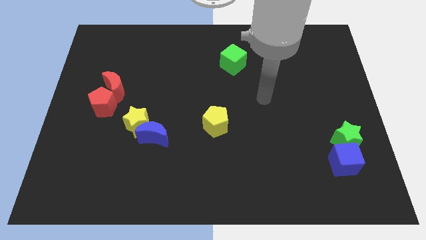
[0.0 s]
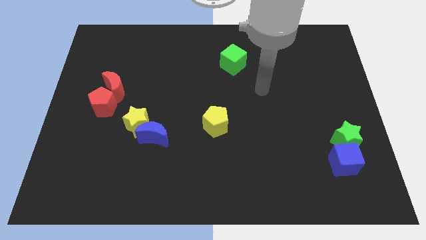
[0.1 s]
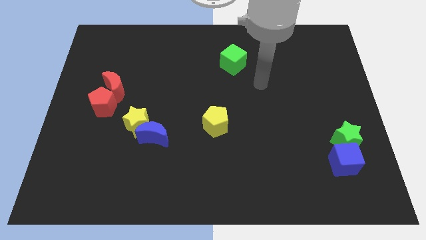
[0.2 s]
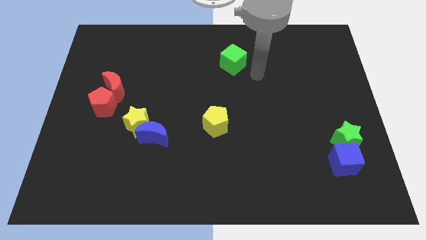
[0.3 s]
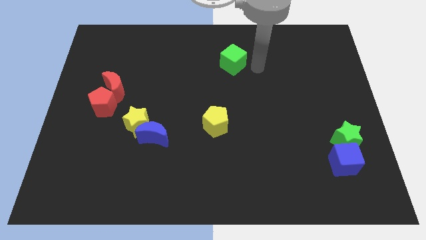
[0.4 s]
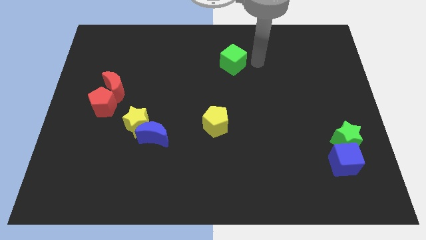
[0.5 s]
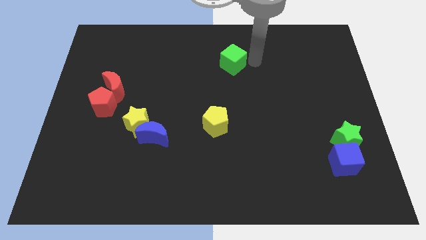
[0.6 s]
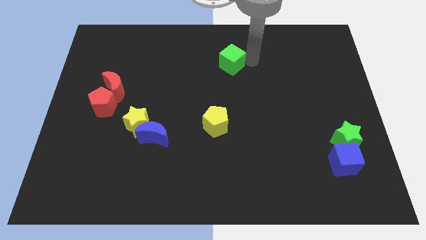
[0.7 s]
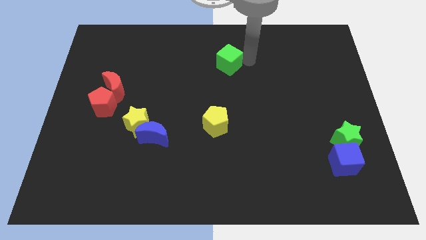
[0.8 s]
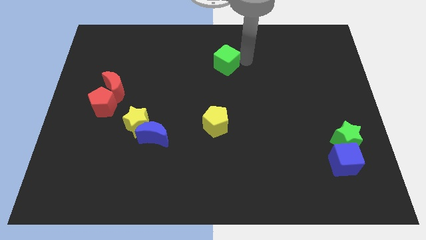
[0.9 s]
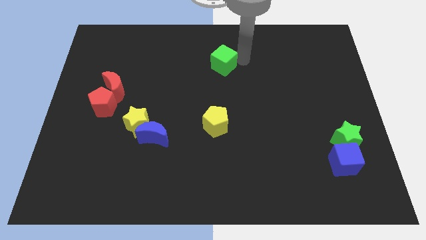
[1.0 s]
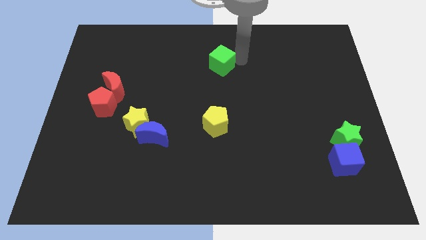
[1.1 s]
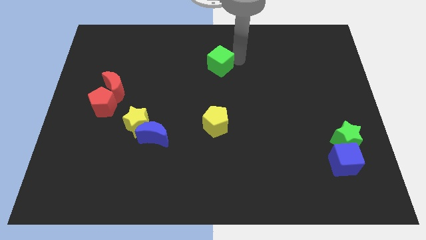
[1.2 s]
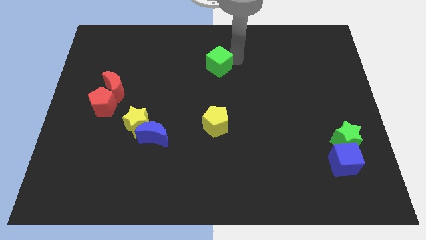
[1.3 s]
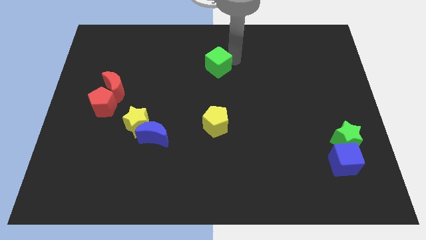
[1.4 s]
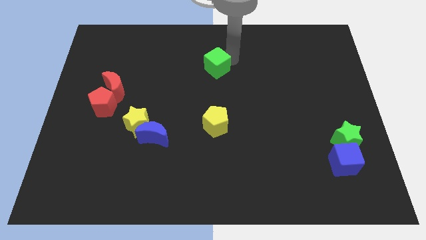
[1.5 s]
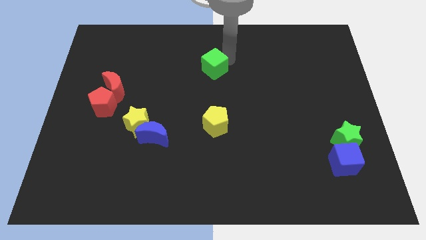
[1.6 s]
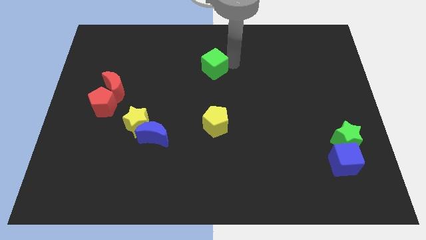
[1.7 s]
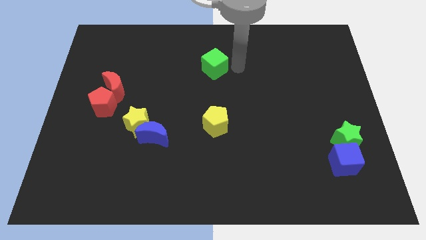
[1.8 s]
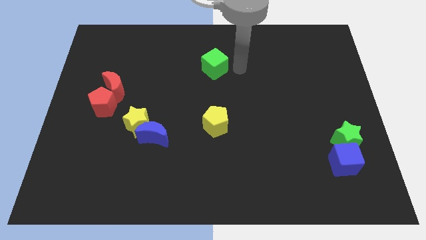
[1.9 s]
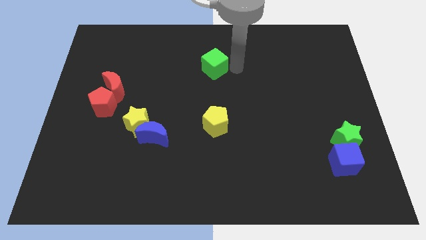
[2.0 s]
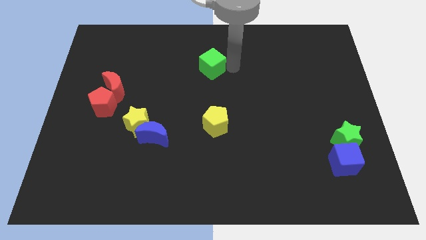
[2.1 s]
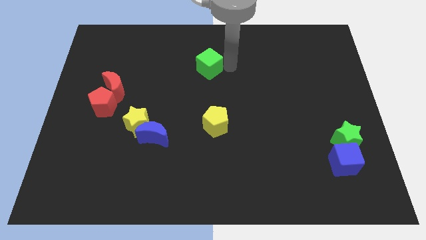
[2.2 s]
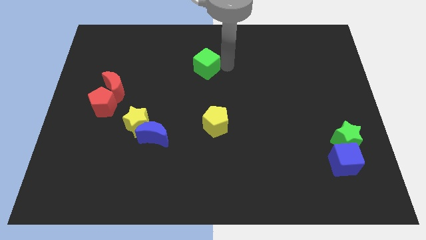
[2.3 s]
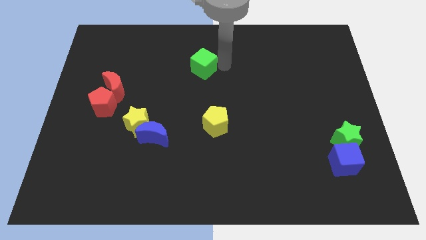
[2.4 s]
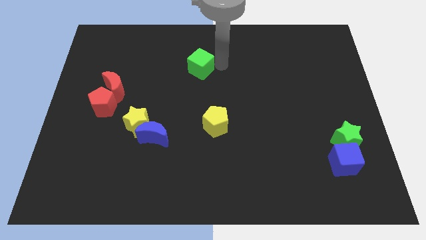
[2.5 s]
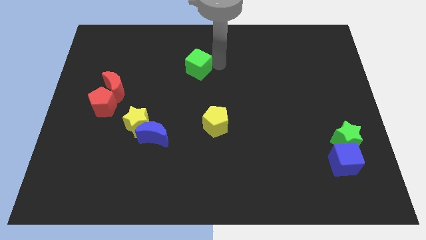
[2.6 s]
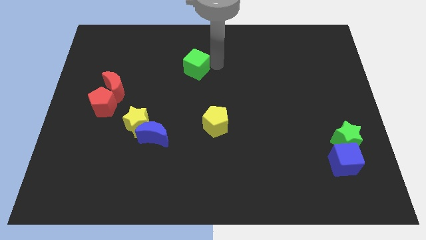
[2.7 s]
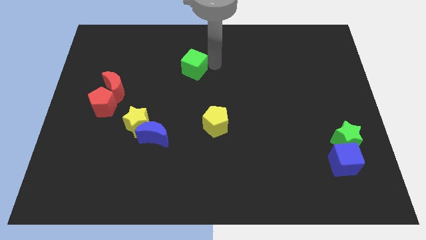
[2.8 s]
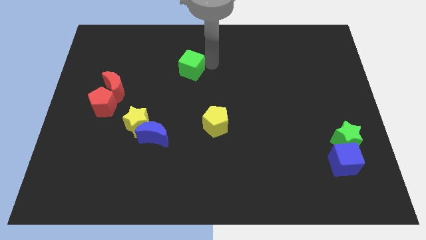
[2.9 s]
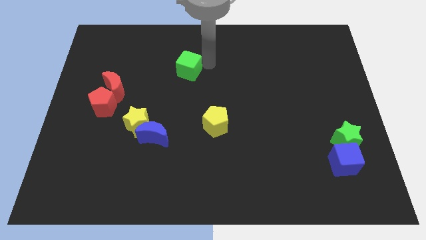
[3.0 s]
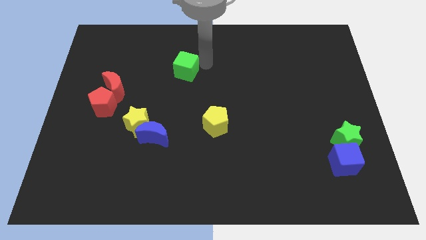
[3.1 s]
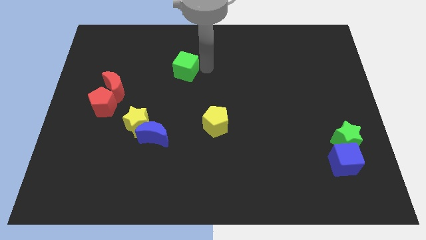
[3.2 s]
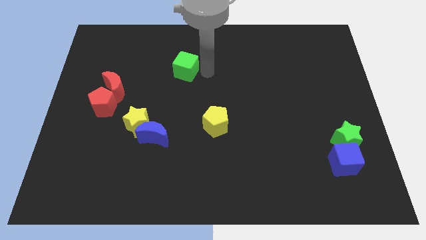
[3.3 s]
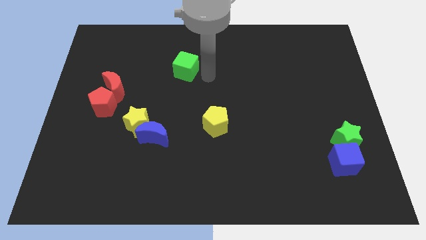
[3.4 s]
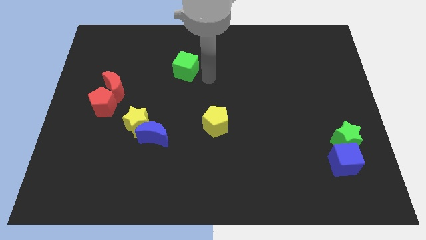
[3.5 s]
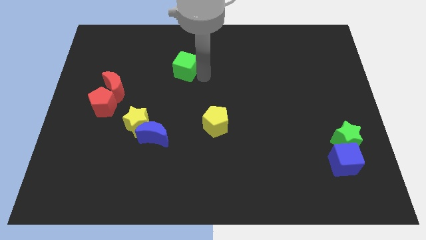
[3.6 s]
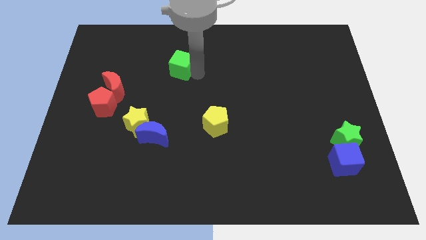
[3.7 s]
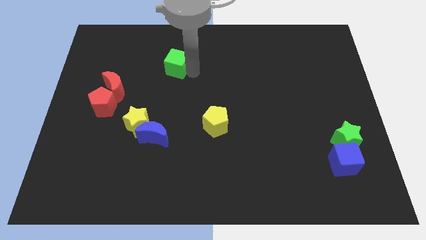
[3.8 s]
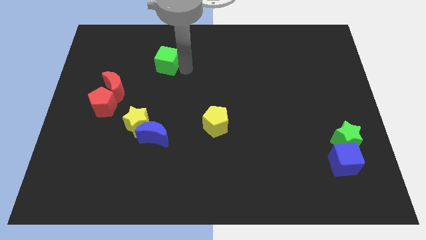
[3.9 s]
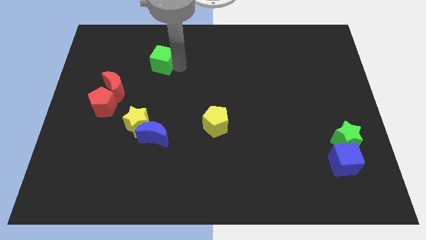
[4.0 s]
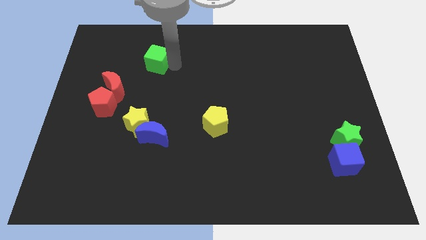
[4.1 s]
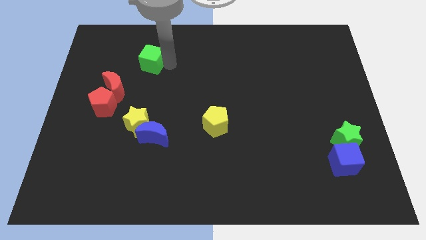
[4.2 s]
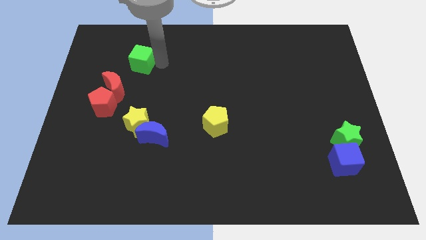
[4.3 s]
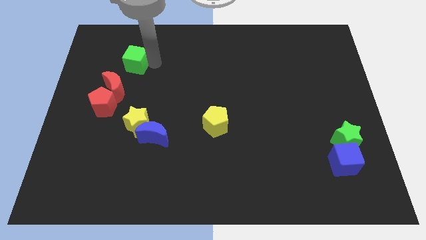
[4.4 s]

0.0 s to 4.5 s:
move the green cube to the top side of the red moon

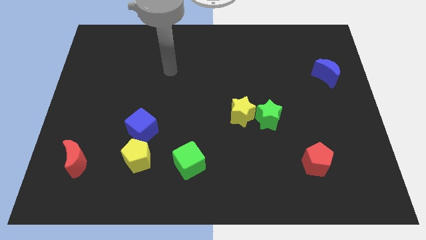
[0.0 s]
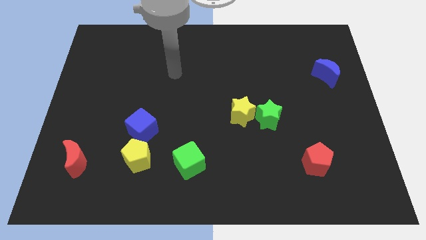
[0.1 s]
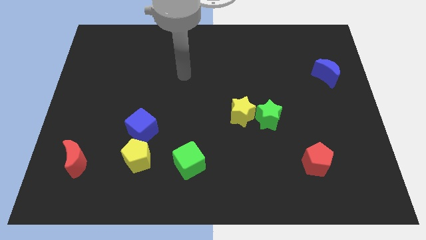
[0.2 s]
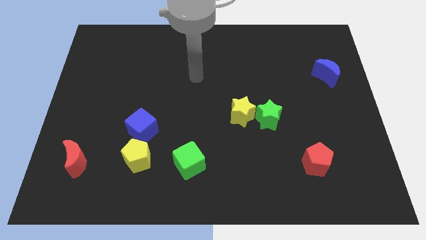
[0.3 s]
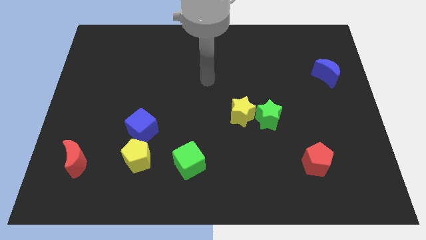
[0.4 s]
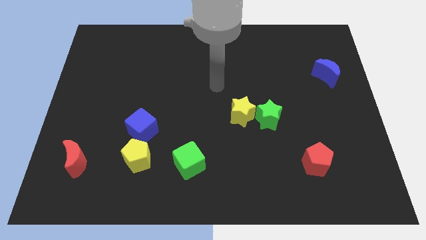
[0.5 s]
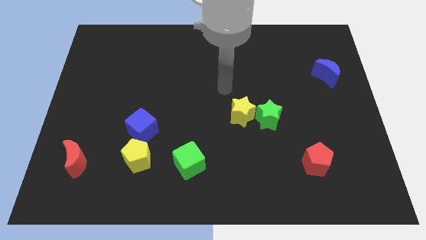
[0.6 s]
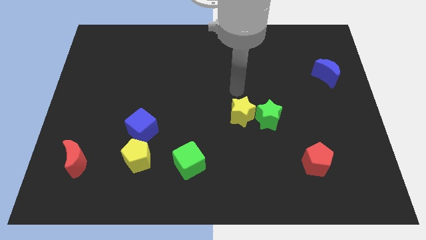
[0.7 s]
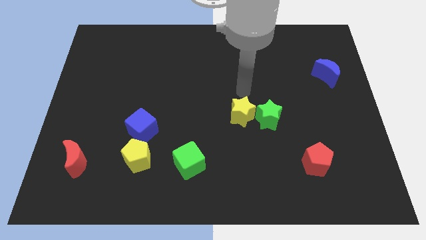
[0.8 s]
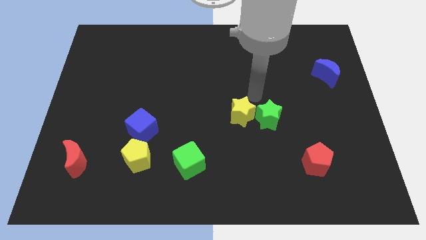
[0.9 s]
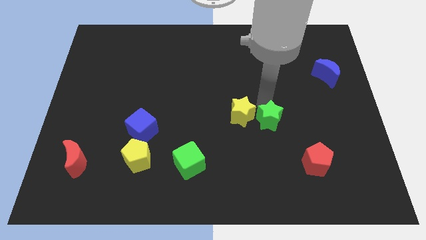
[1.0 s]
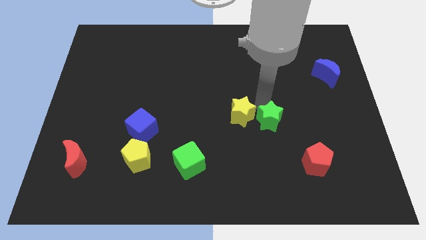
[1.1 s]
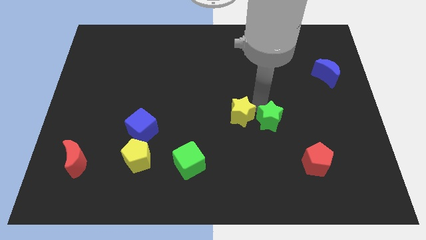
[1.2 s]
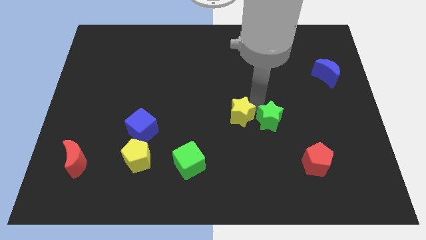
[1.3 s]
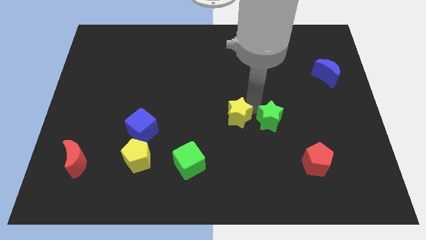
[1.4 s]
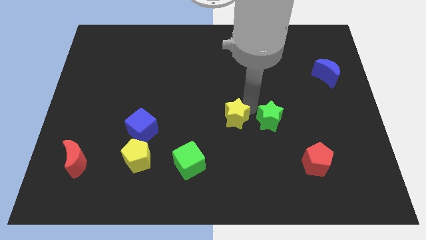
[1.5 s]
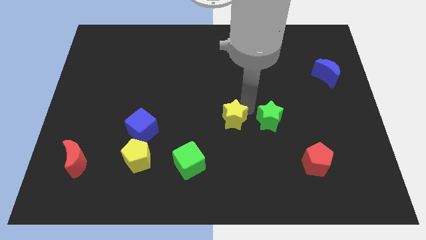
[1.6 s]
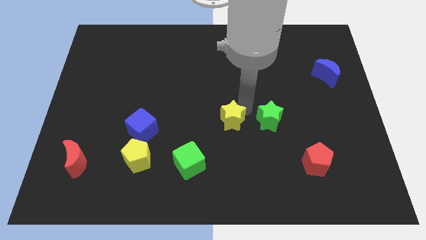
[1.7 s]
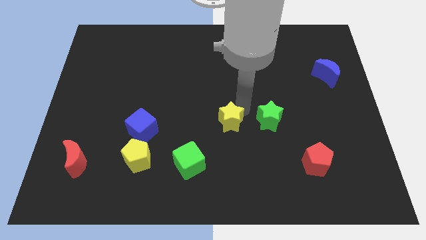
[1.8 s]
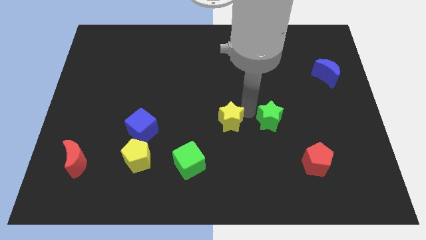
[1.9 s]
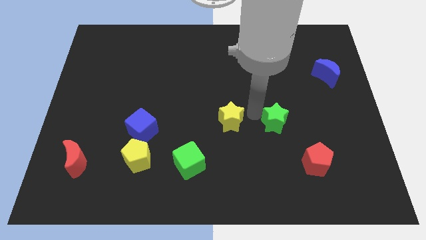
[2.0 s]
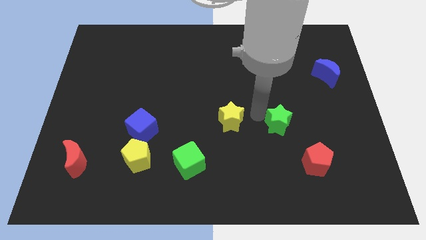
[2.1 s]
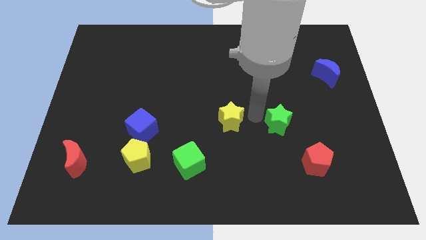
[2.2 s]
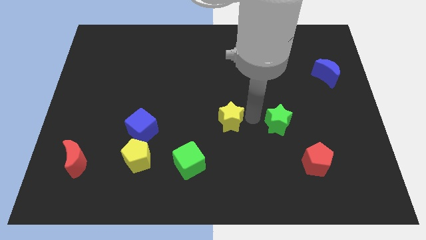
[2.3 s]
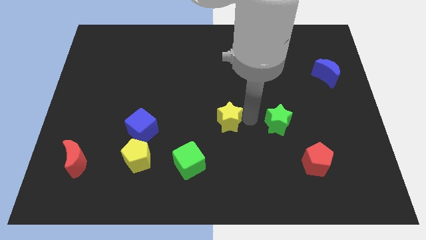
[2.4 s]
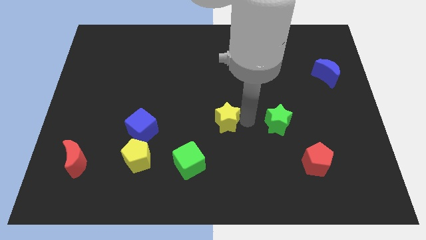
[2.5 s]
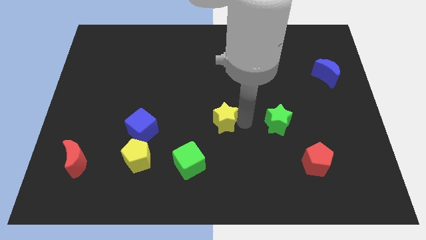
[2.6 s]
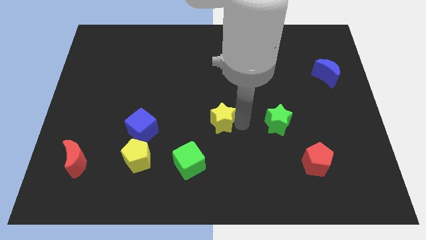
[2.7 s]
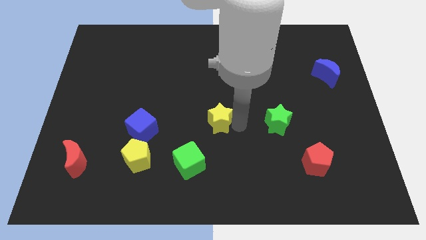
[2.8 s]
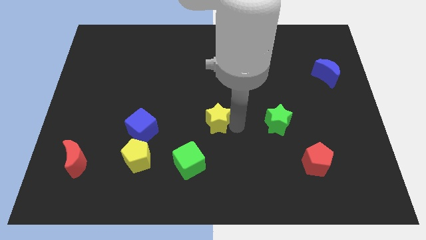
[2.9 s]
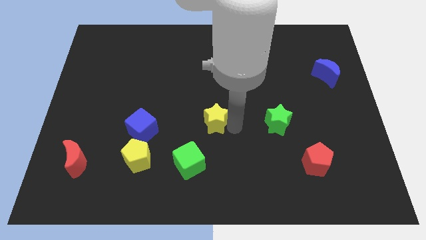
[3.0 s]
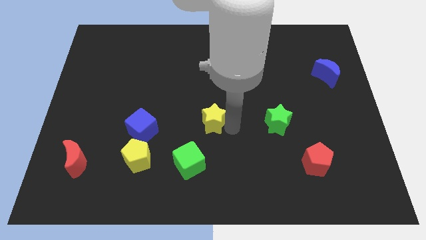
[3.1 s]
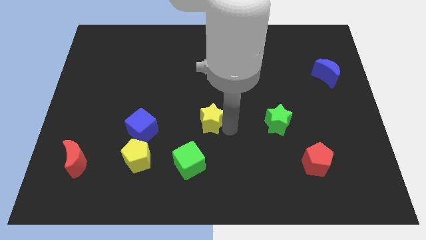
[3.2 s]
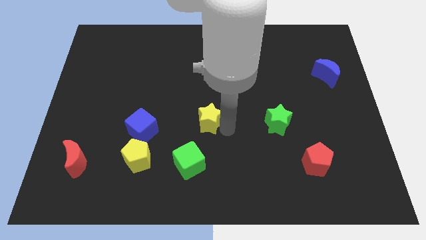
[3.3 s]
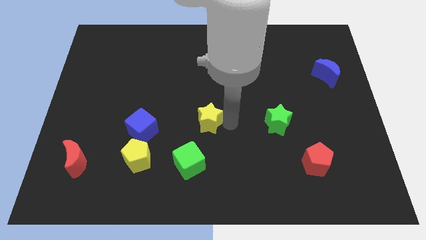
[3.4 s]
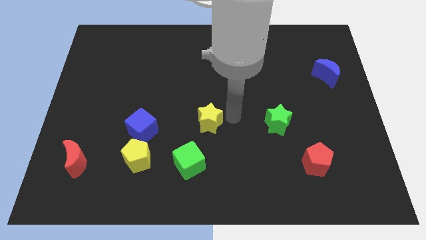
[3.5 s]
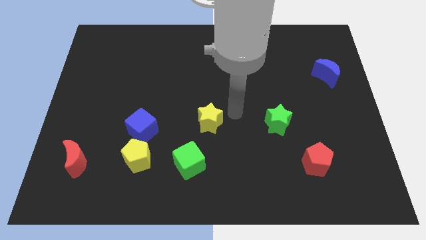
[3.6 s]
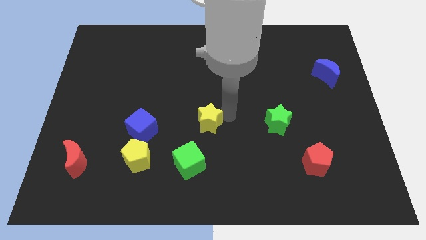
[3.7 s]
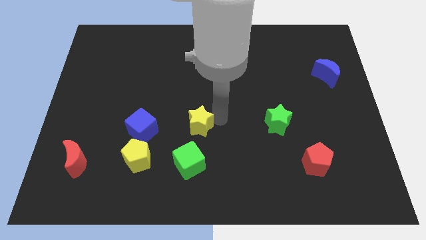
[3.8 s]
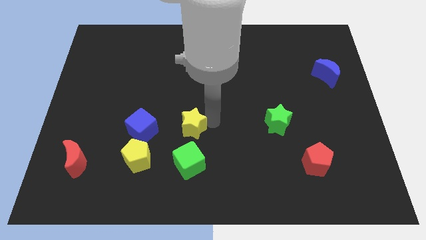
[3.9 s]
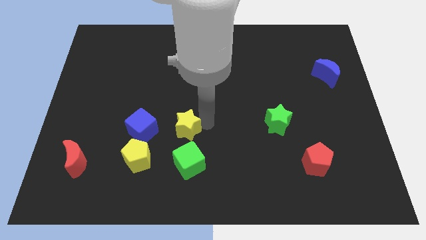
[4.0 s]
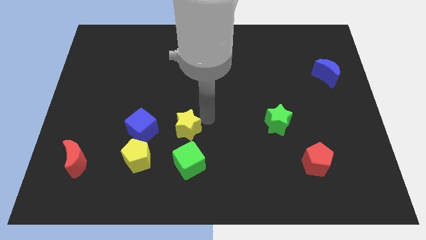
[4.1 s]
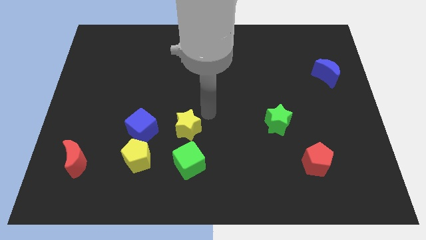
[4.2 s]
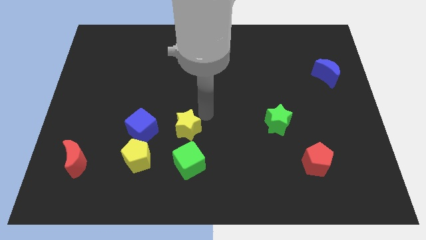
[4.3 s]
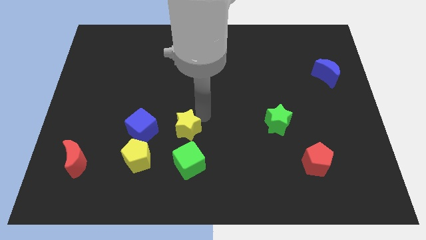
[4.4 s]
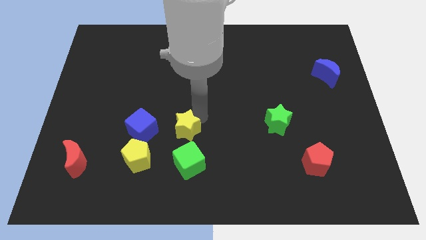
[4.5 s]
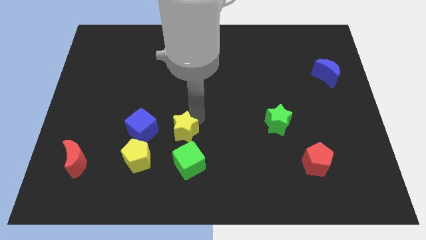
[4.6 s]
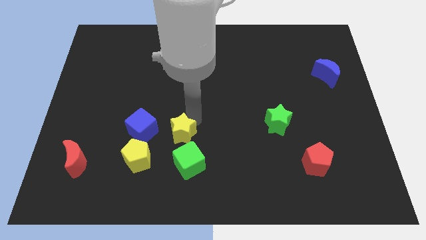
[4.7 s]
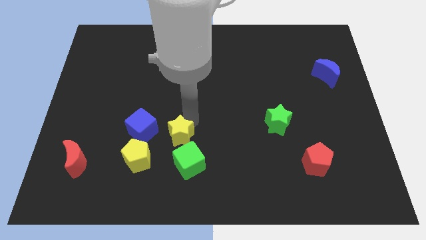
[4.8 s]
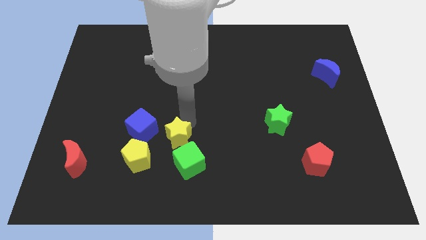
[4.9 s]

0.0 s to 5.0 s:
push the yellow star to the bottom right side of the blue cube
